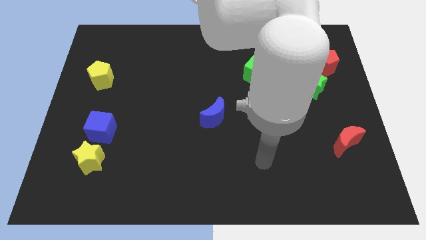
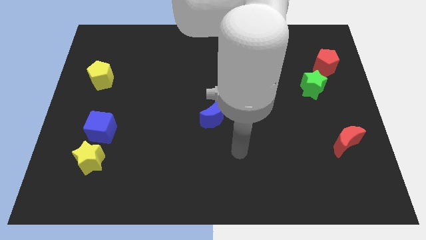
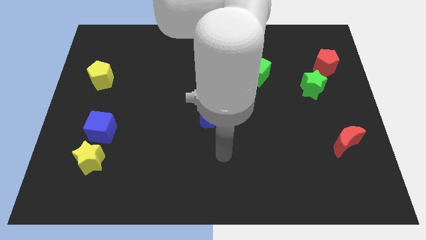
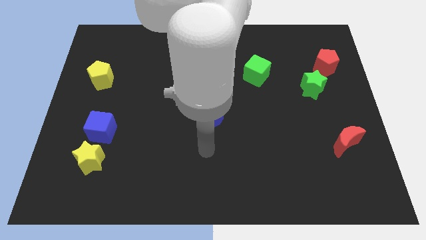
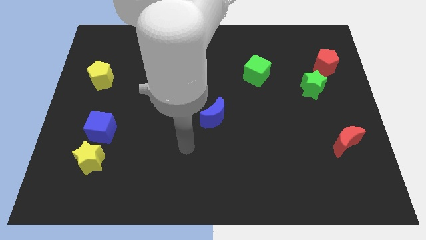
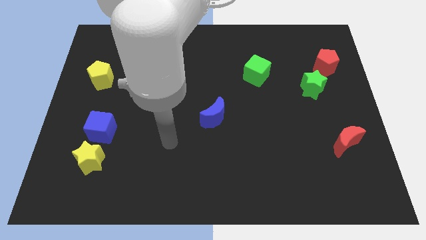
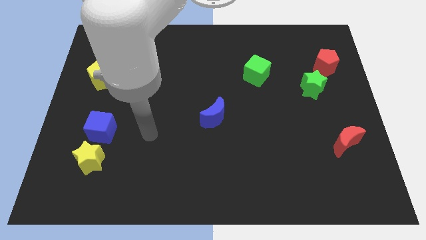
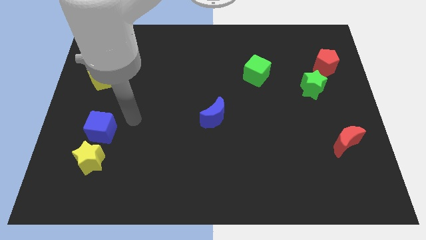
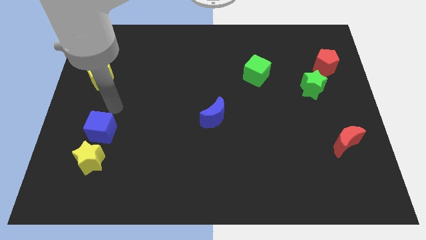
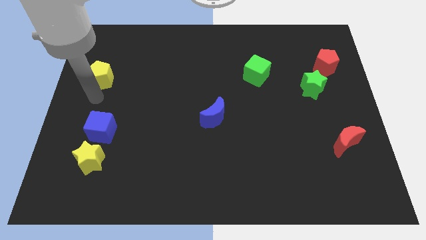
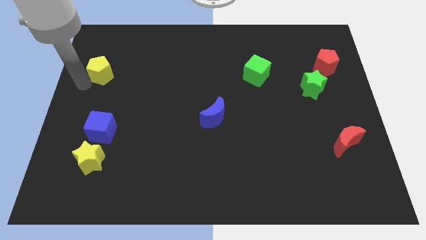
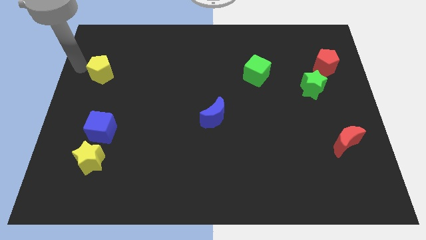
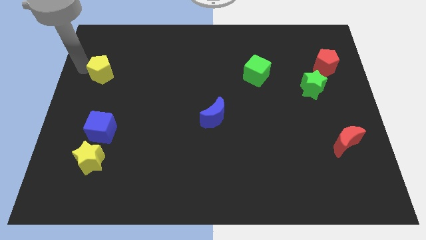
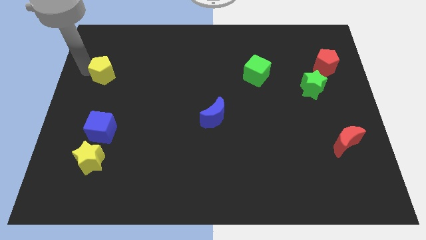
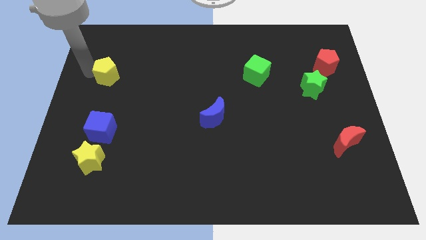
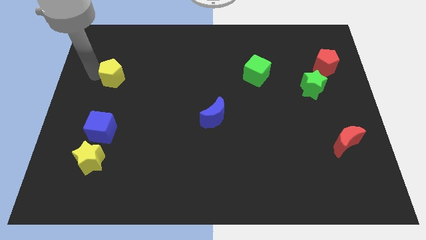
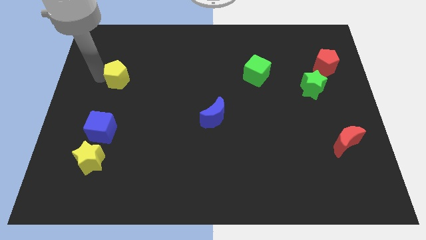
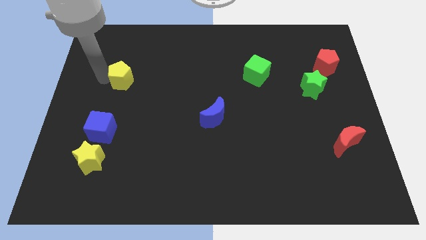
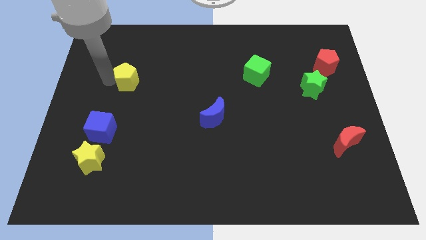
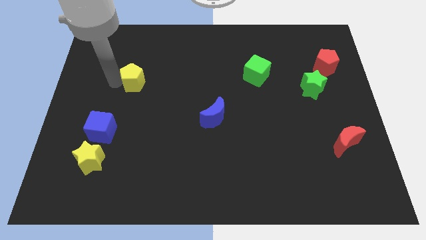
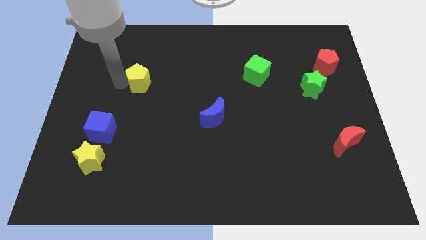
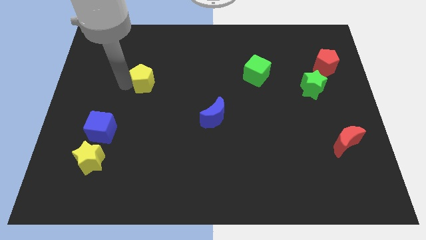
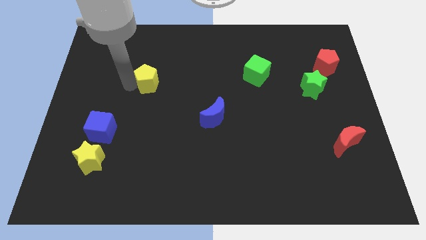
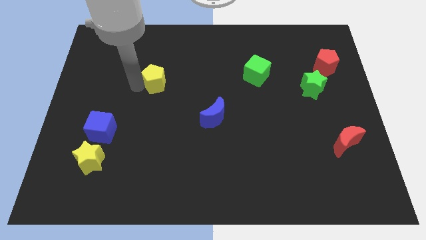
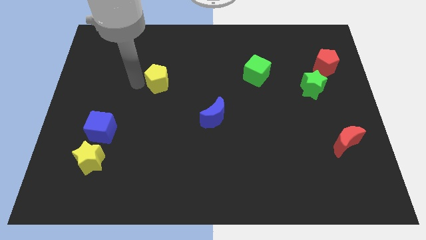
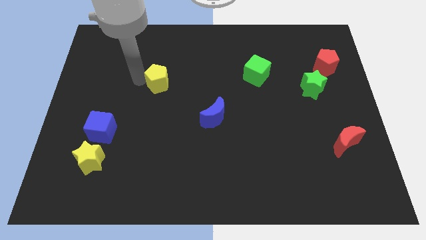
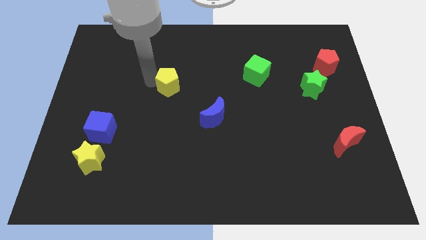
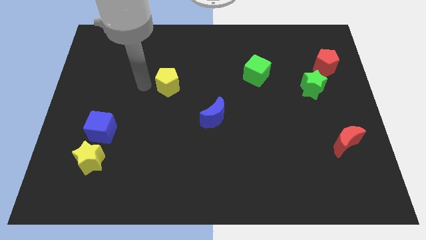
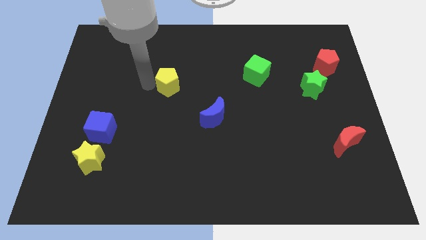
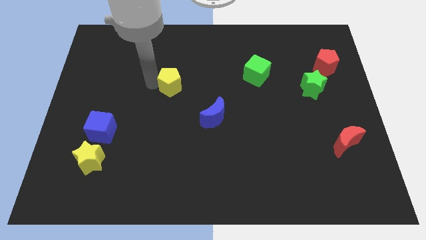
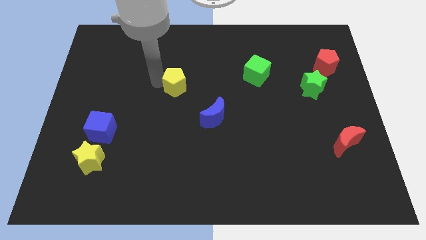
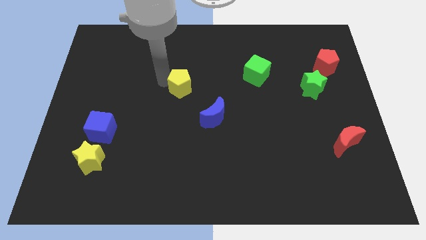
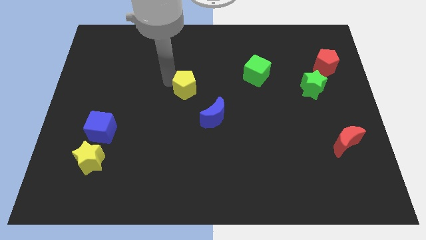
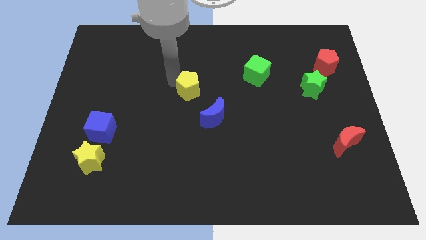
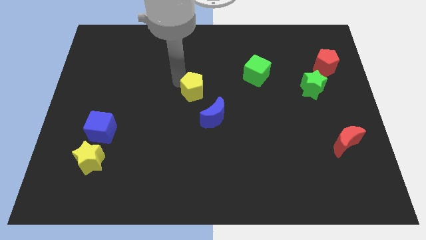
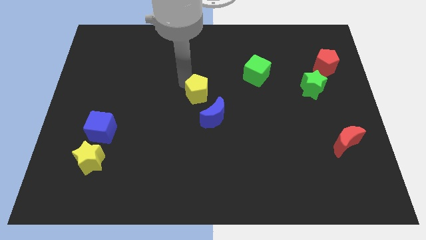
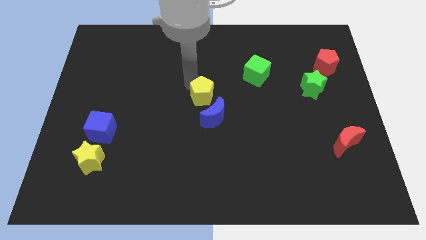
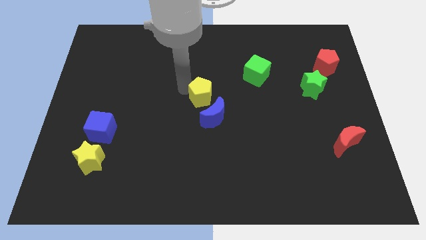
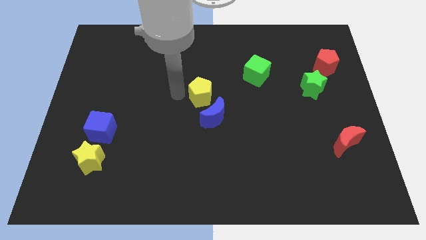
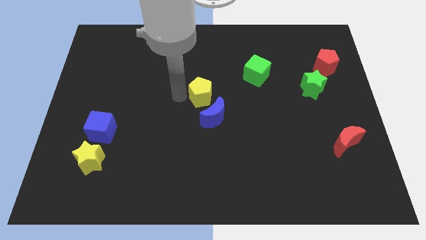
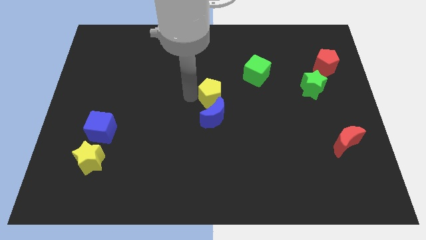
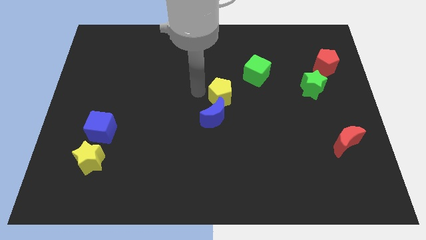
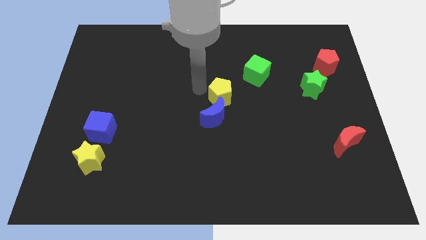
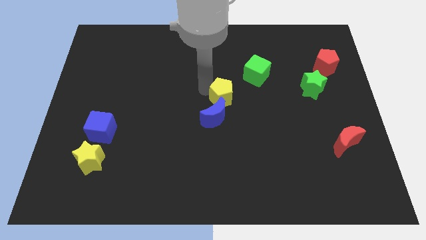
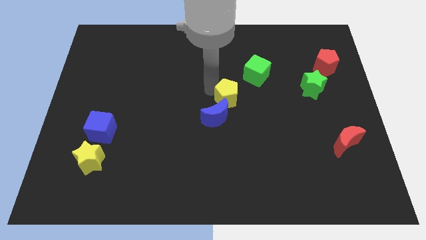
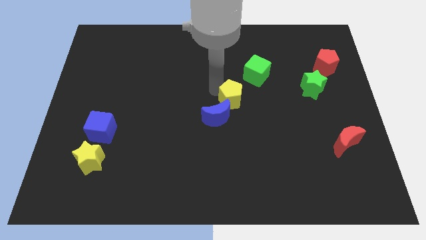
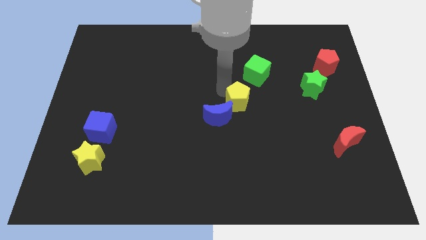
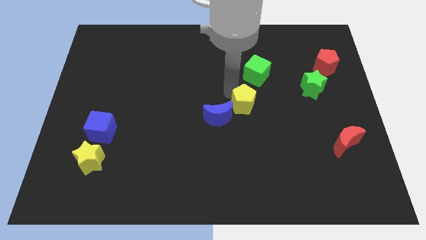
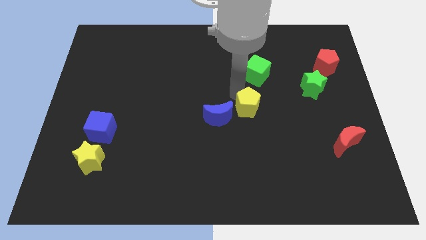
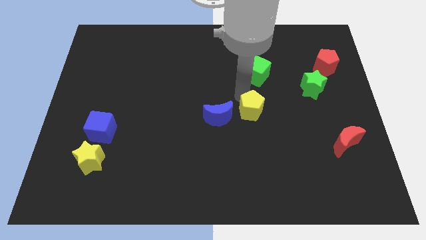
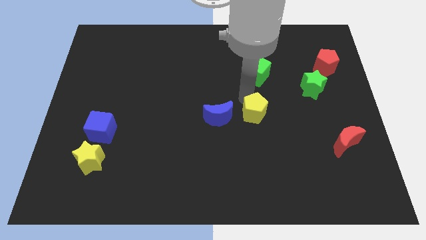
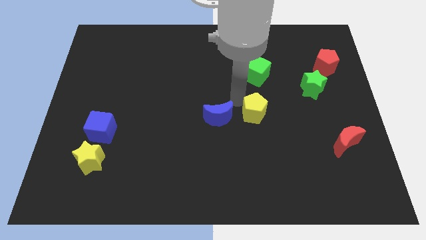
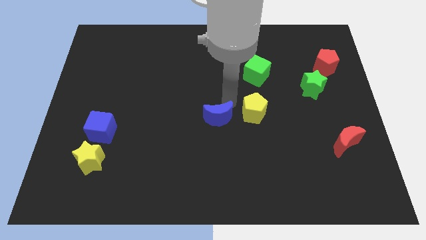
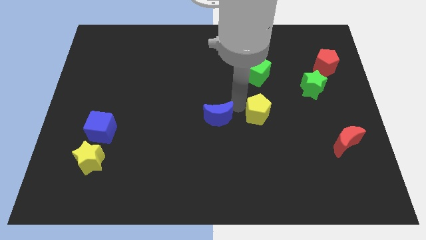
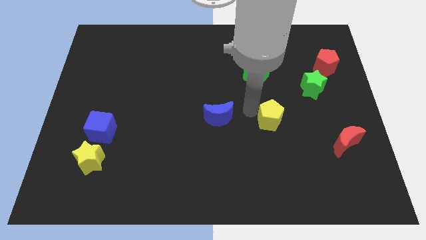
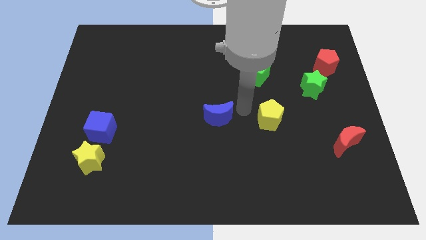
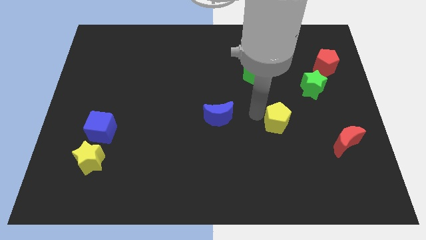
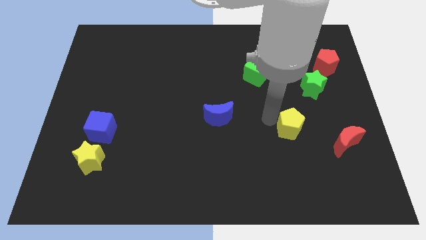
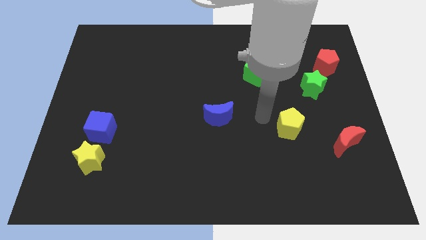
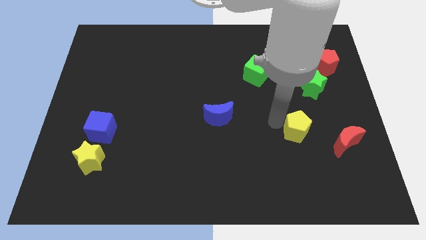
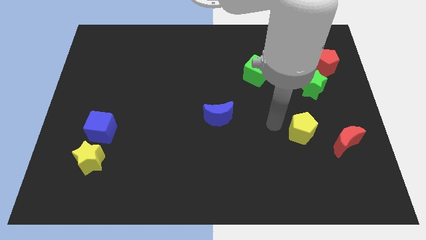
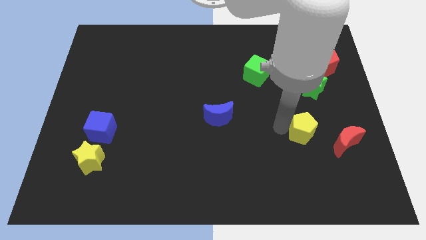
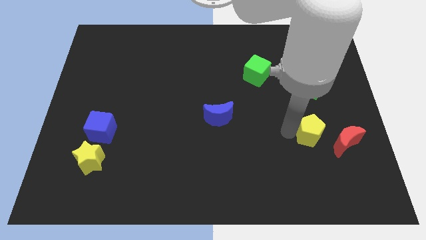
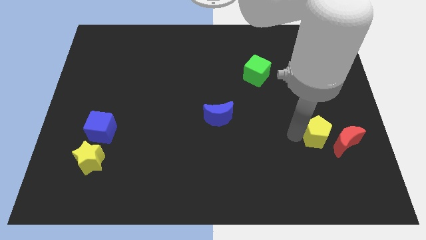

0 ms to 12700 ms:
put the yellow pentagon close to the red moon

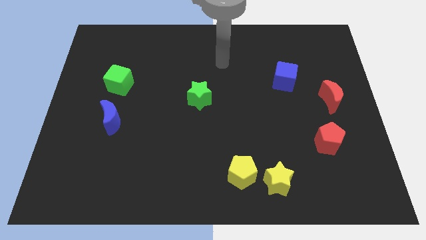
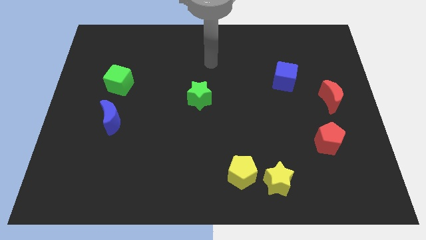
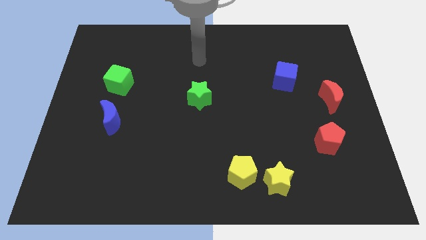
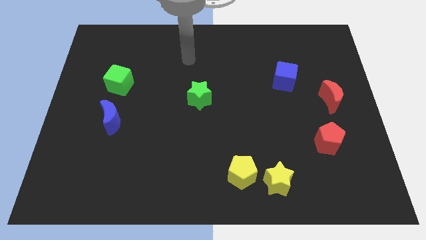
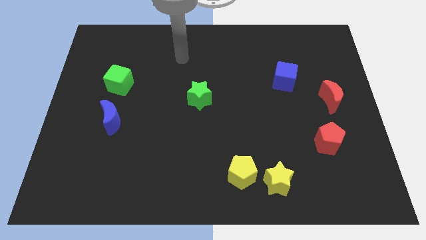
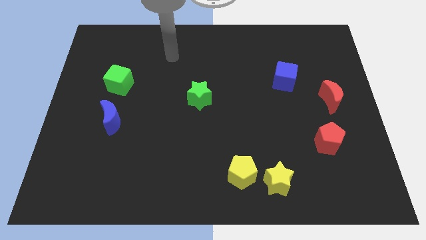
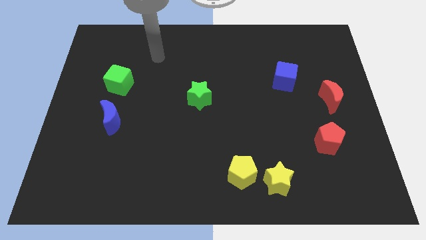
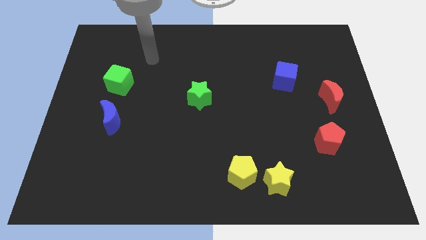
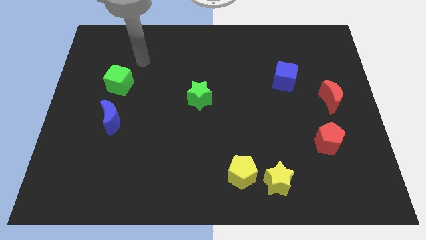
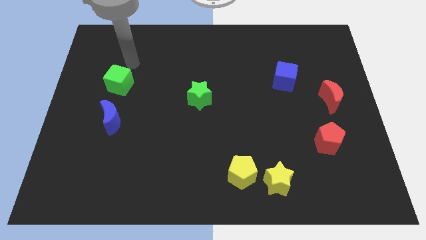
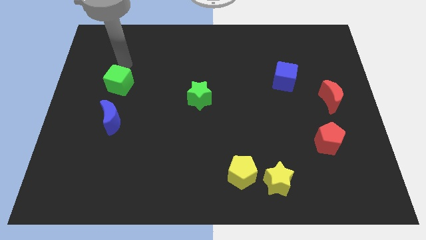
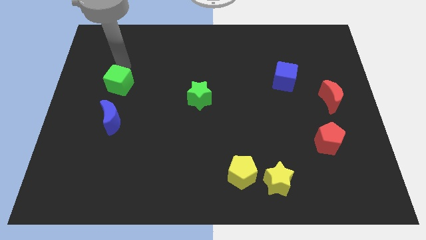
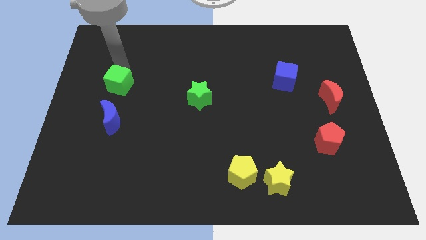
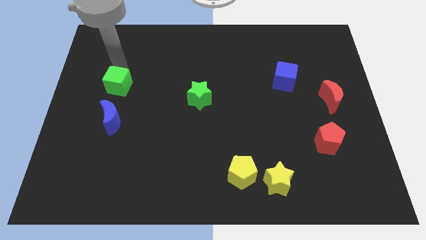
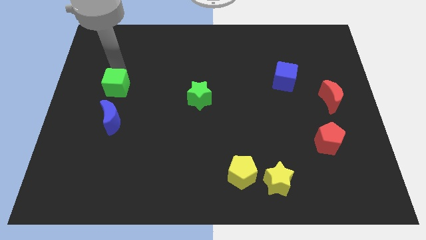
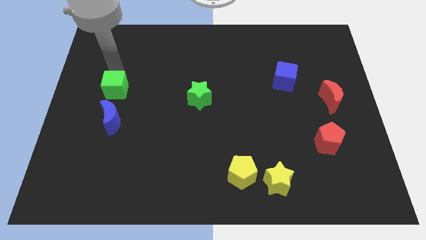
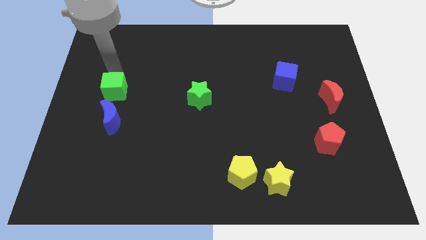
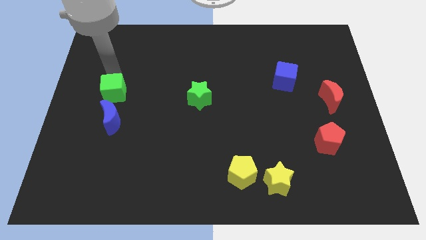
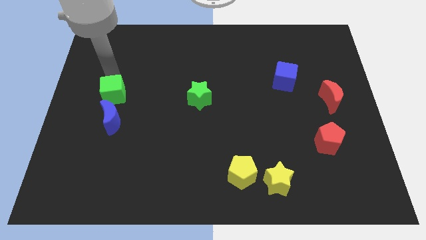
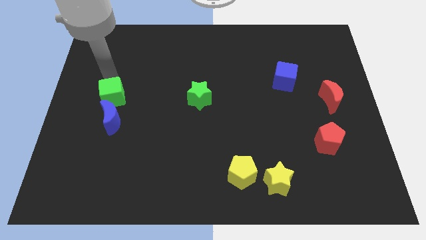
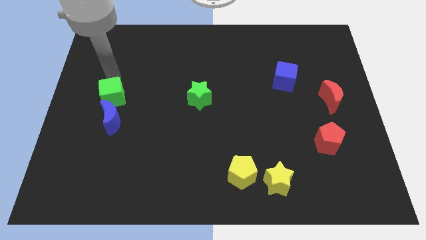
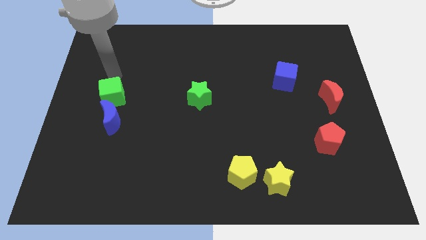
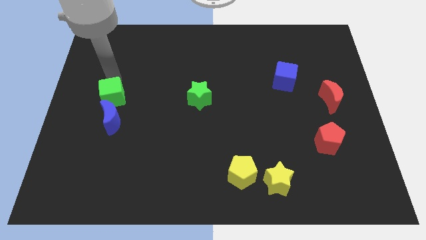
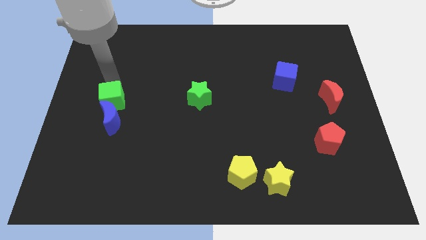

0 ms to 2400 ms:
put the green cube close to the blue moon
